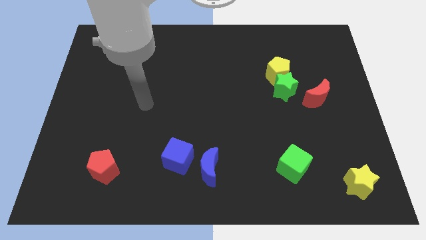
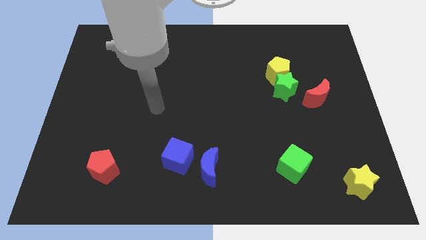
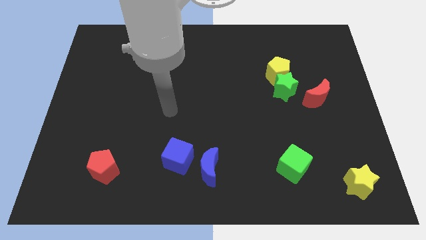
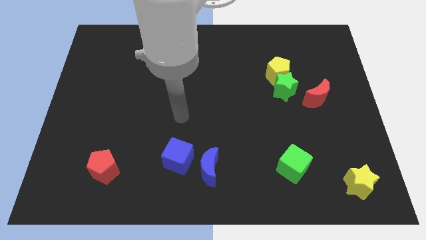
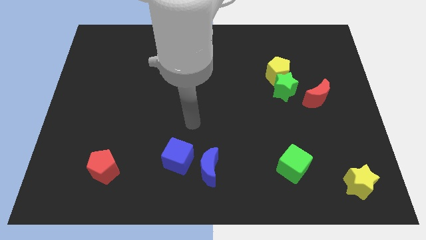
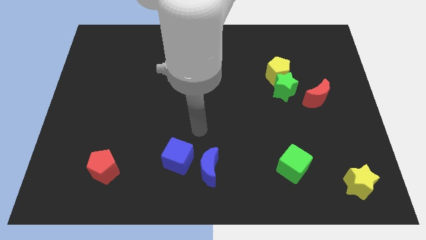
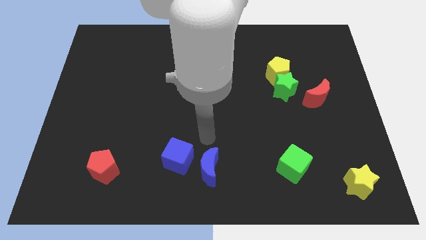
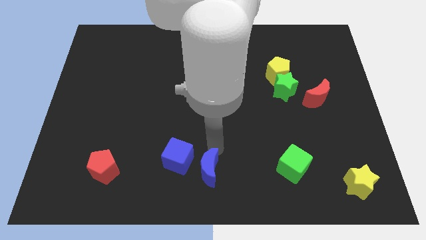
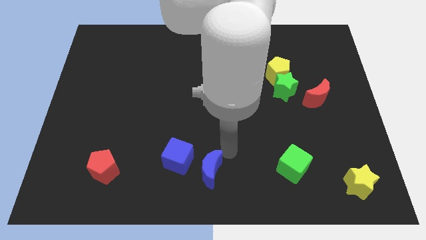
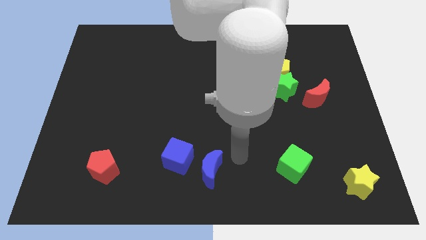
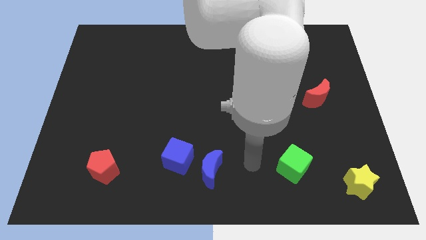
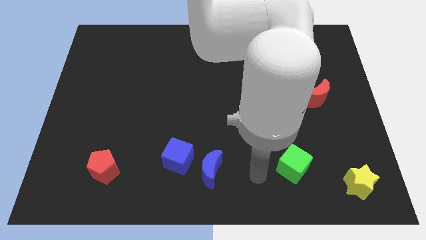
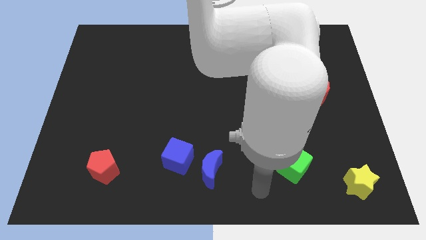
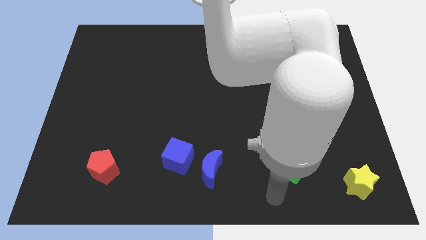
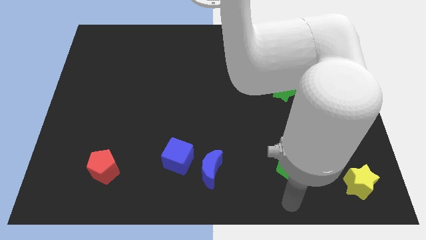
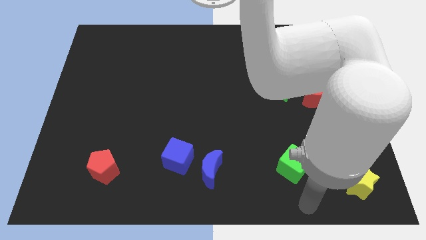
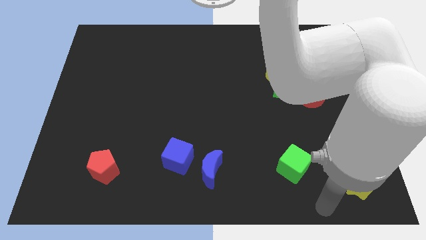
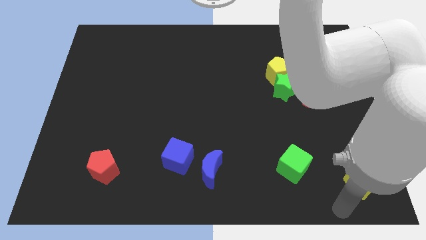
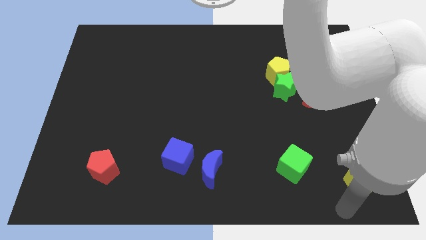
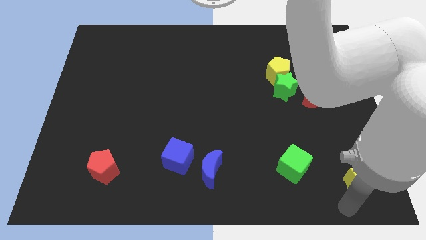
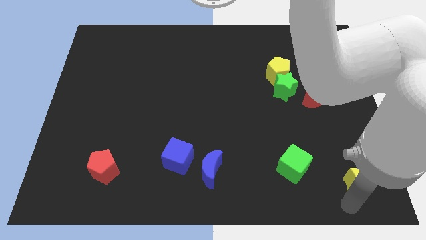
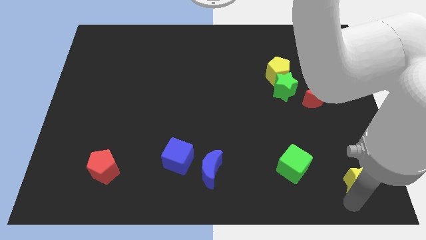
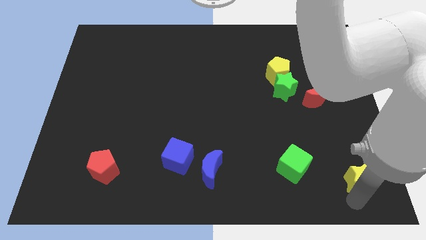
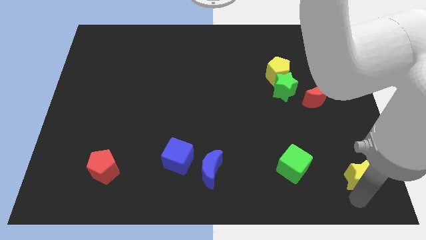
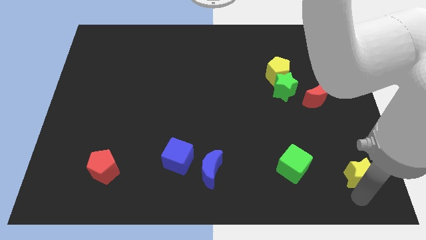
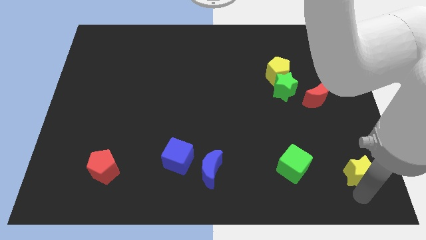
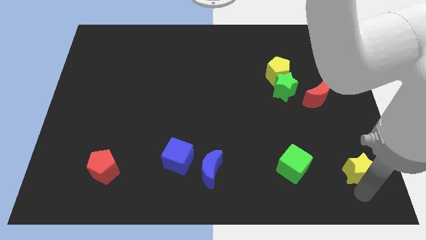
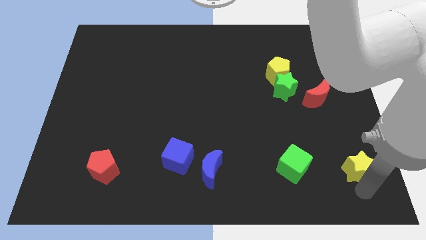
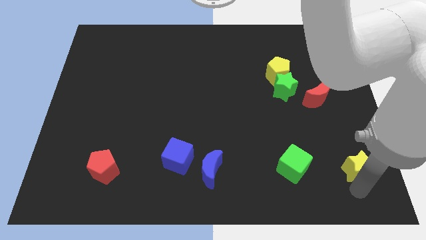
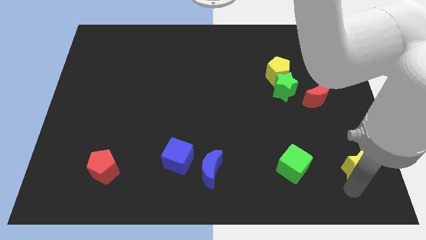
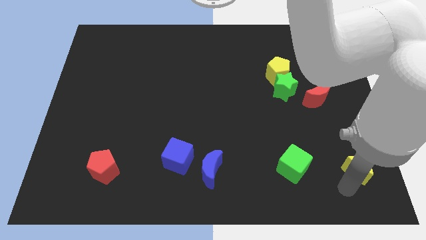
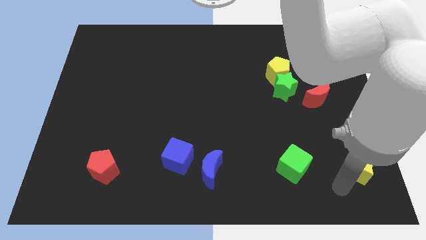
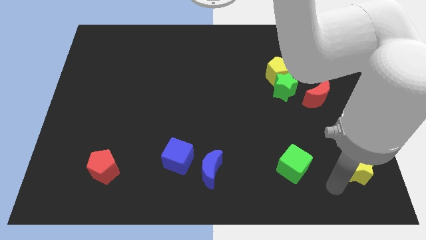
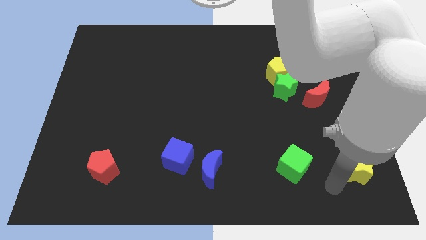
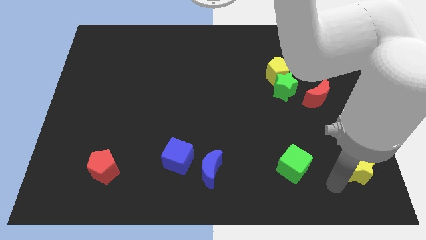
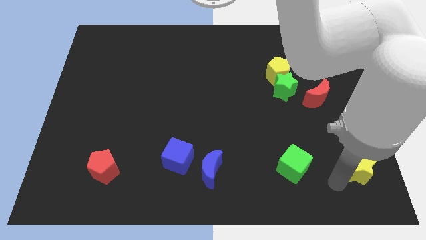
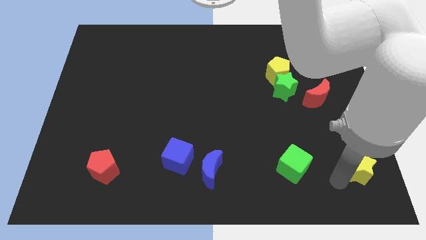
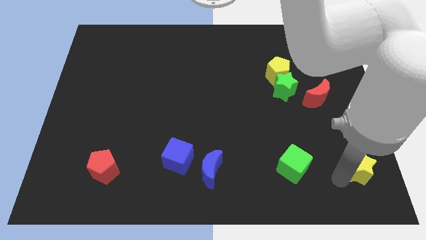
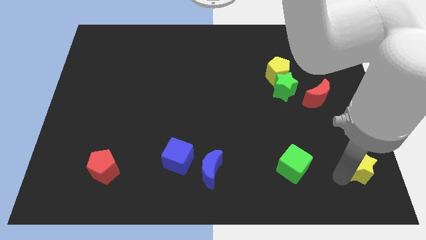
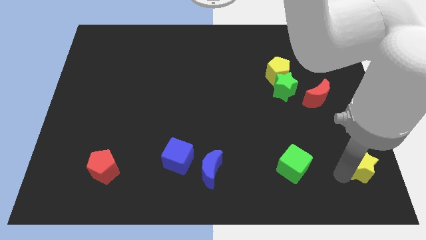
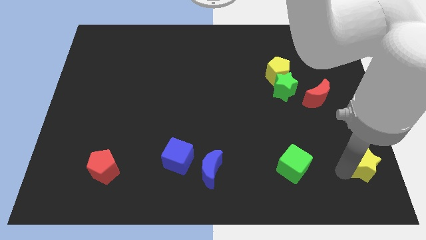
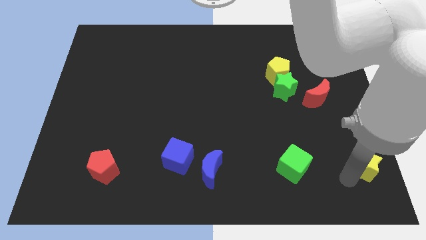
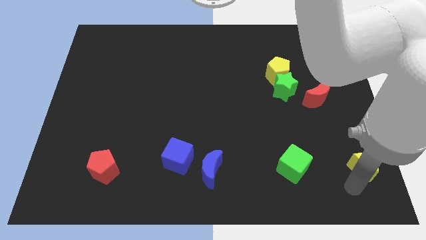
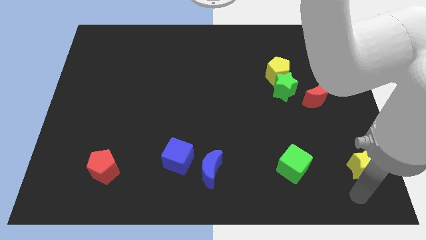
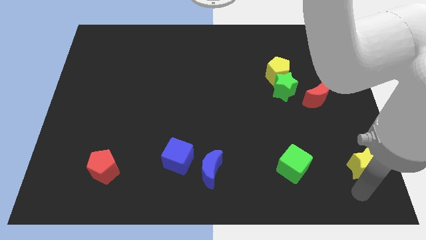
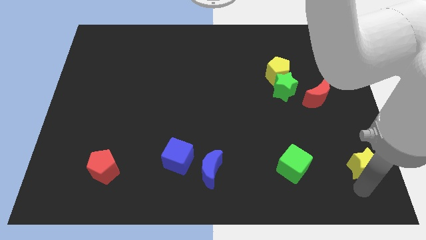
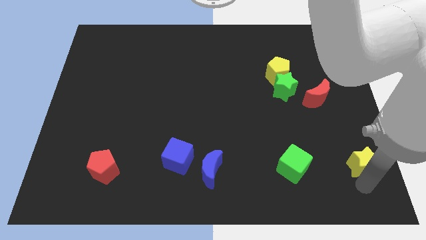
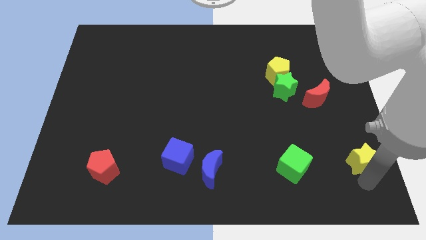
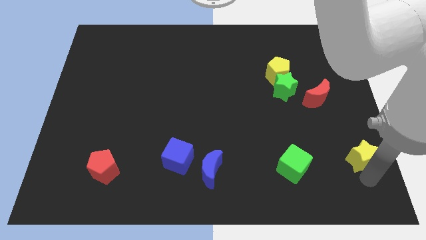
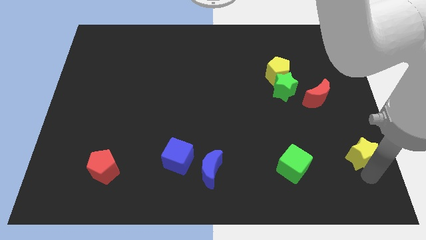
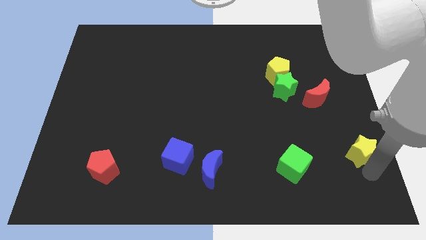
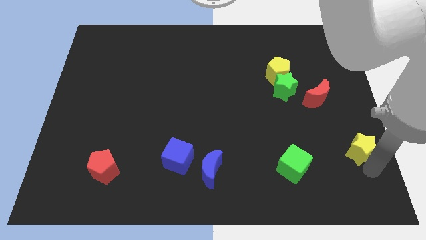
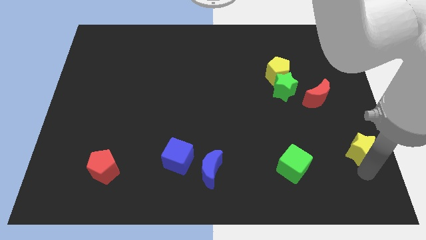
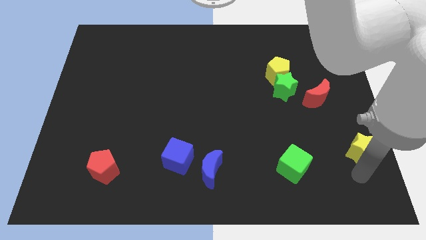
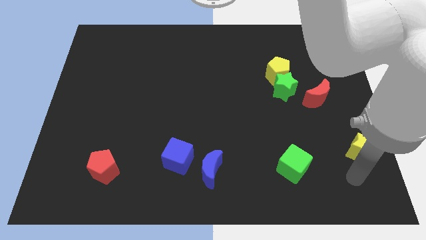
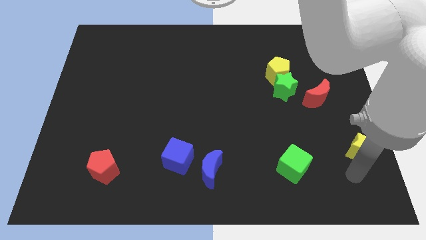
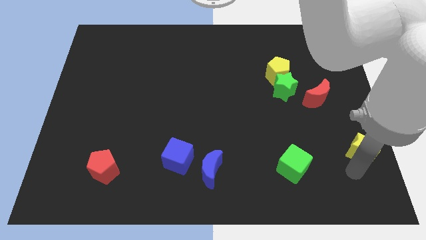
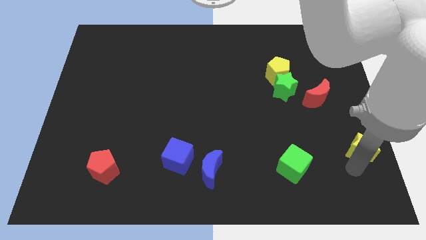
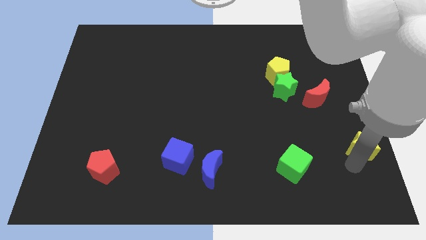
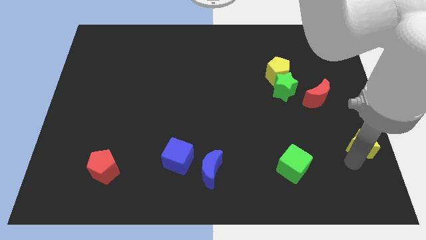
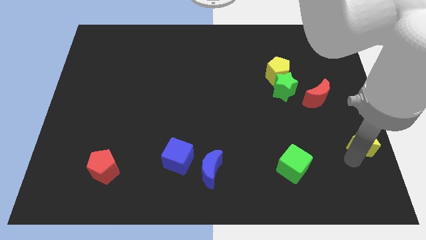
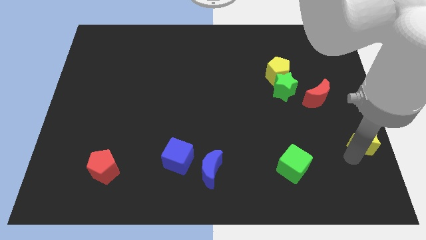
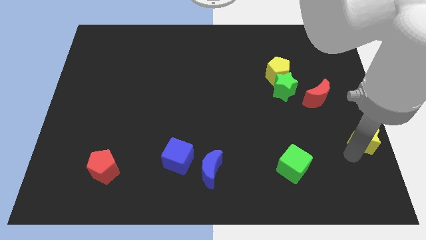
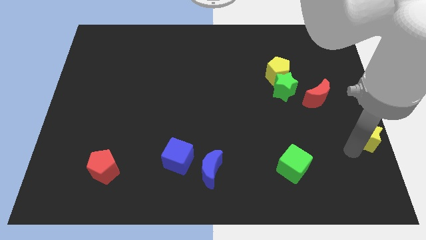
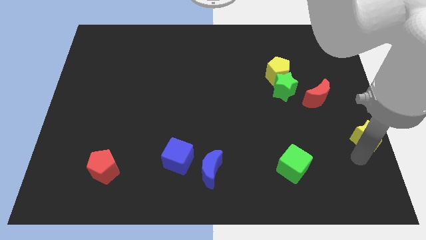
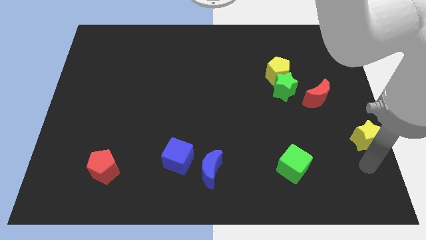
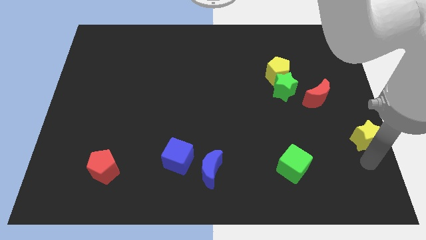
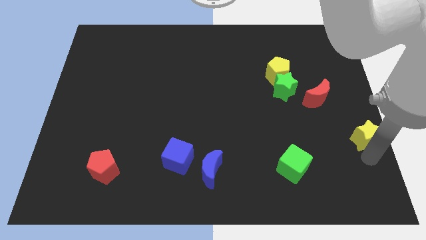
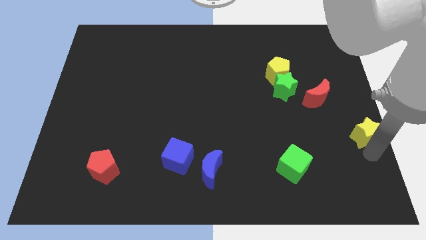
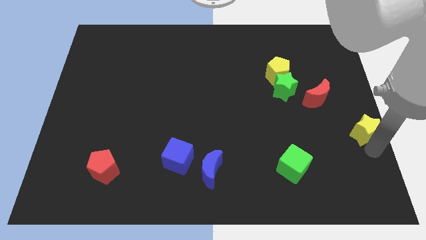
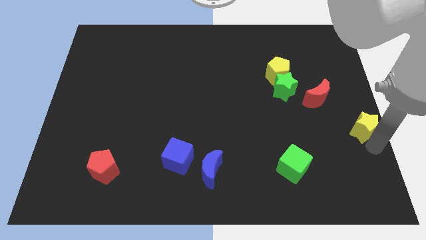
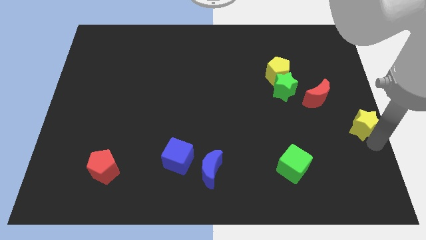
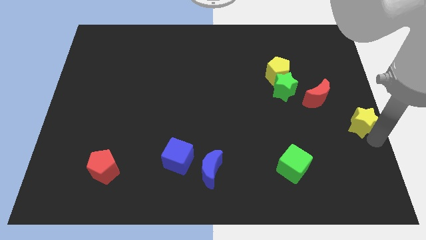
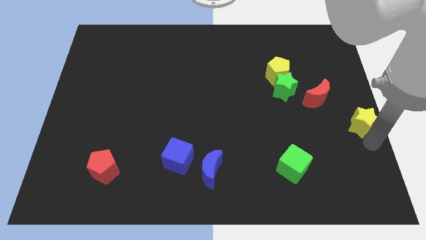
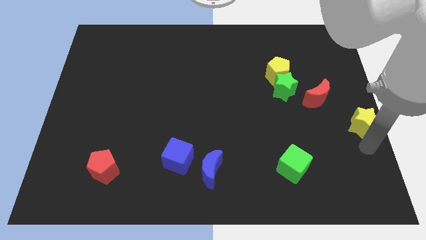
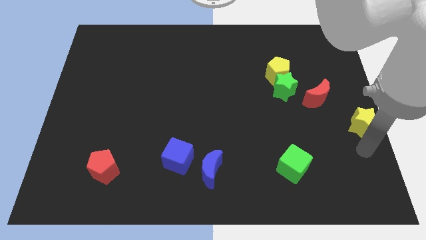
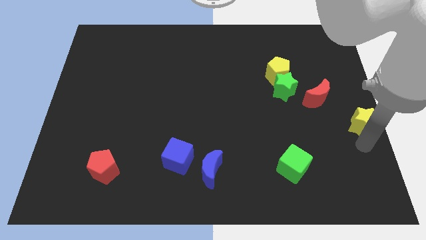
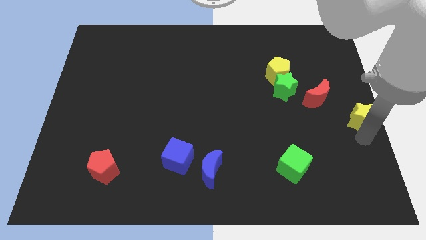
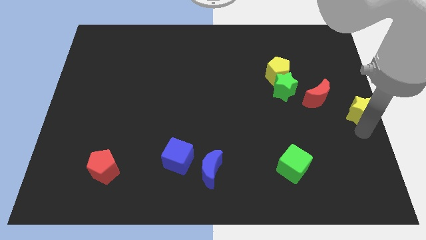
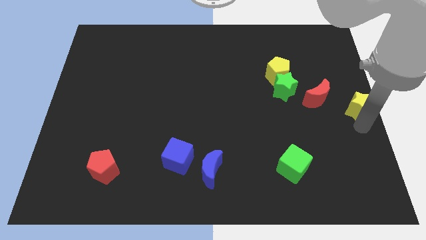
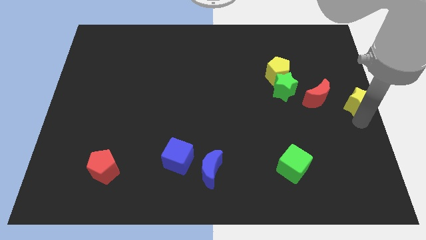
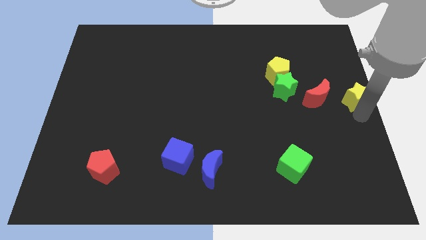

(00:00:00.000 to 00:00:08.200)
slide the yellow star upwards

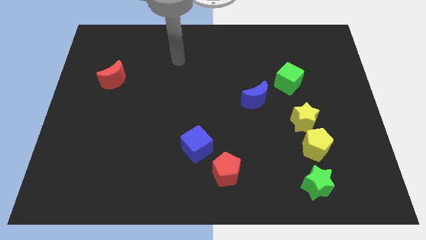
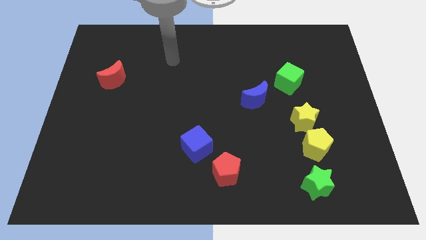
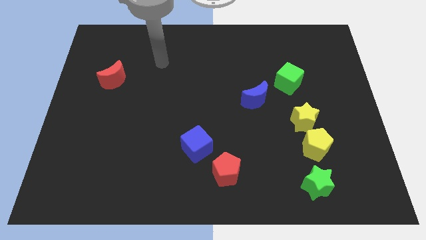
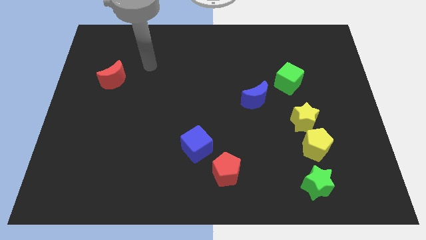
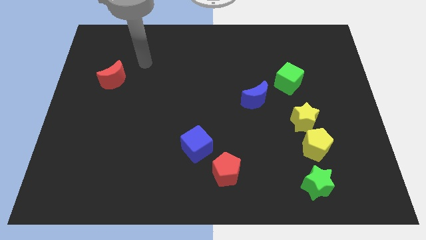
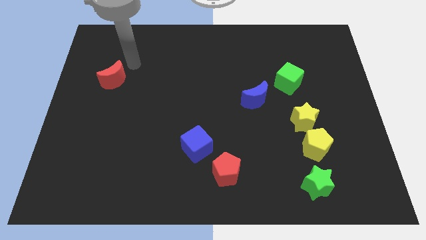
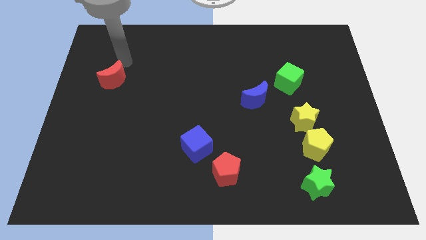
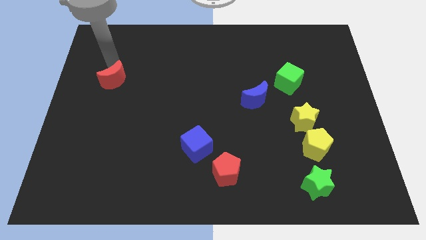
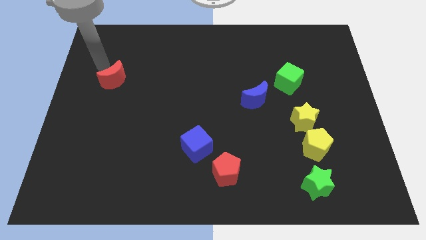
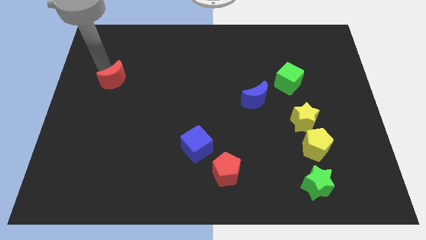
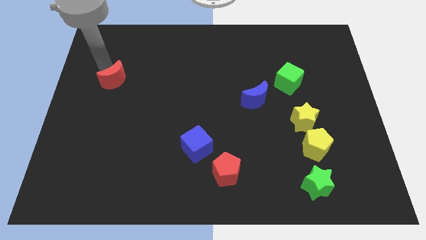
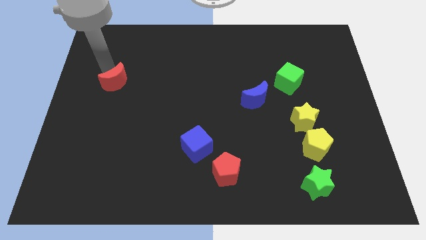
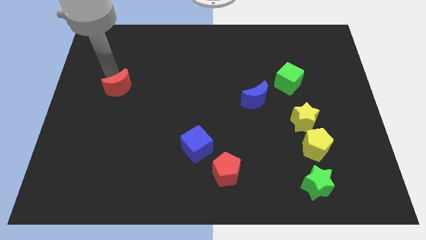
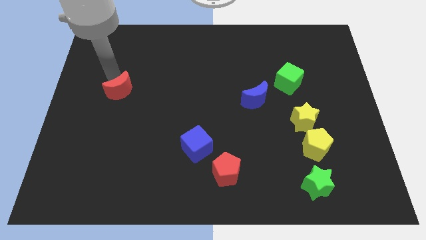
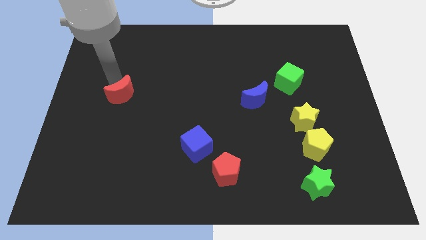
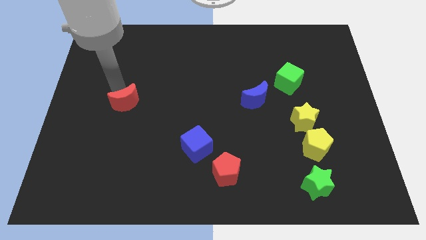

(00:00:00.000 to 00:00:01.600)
slightly push the red moon diagonally downwards and to the right
